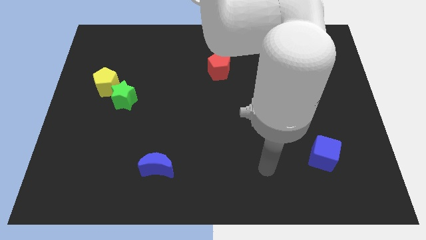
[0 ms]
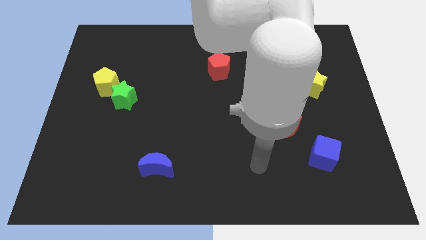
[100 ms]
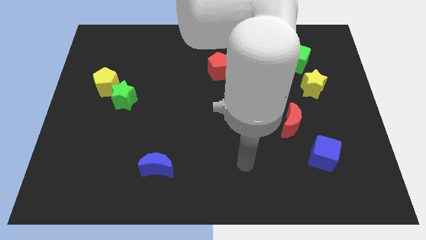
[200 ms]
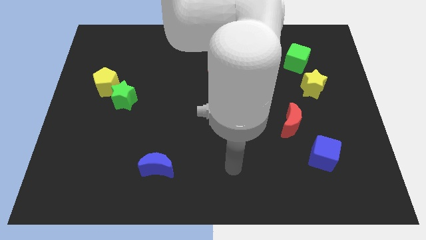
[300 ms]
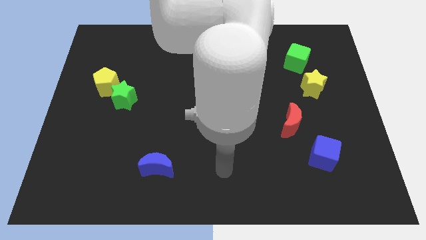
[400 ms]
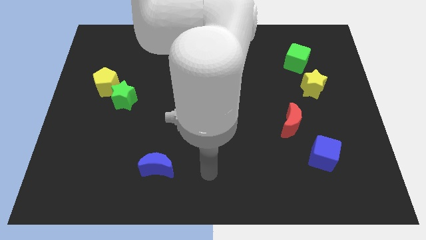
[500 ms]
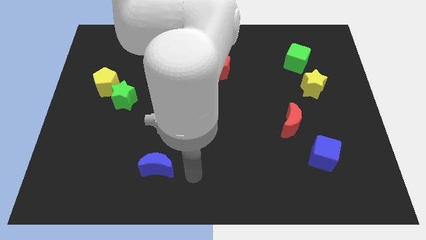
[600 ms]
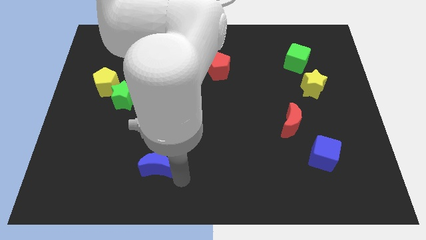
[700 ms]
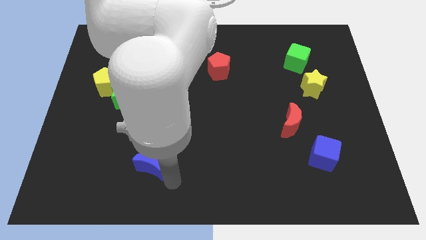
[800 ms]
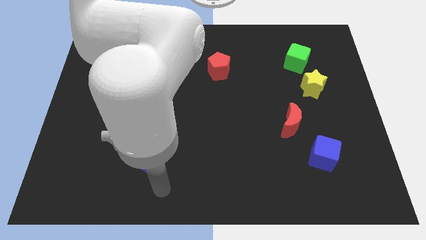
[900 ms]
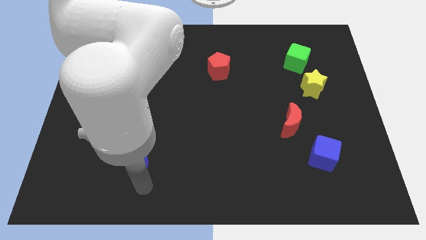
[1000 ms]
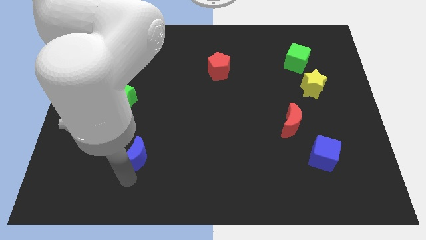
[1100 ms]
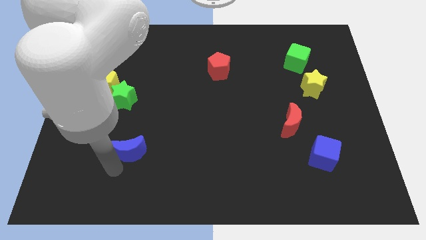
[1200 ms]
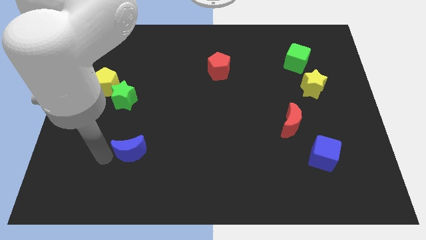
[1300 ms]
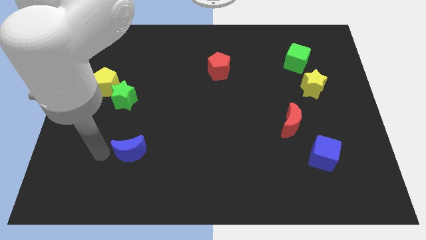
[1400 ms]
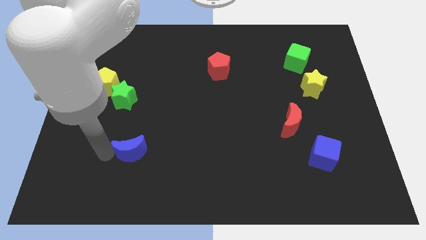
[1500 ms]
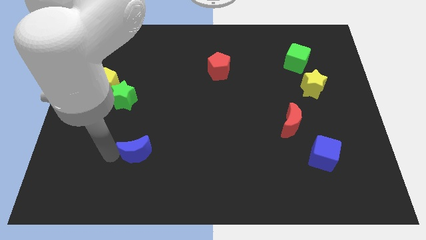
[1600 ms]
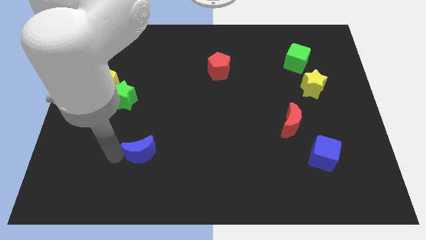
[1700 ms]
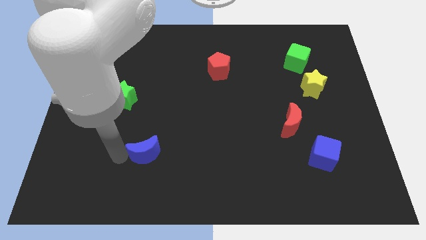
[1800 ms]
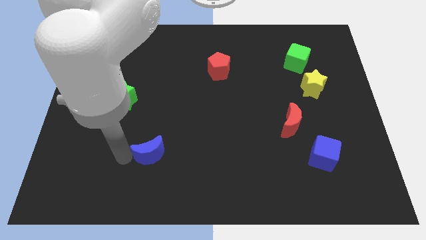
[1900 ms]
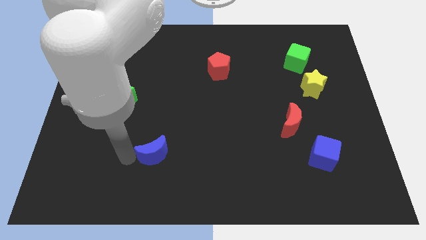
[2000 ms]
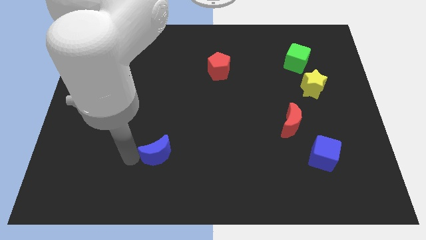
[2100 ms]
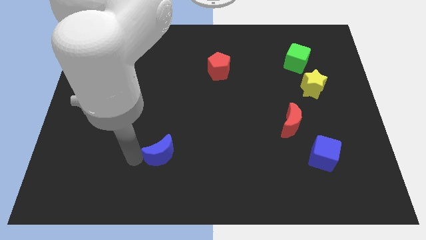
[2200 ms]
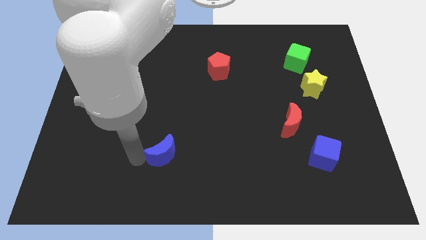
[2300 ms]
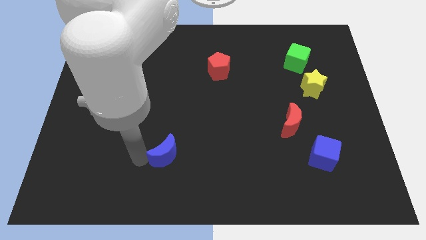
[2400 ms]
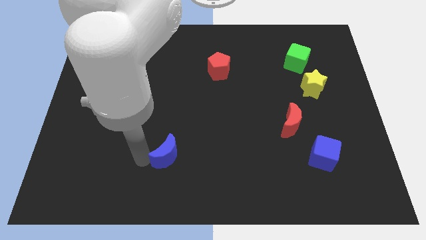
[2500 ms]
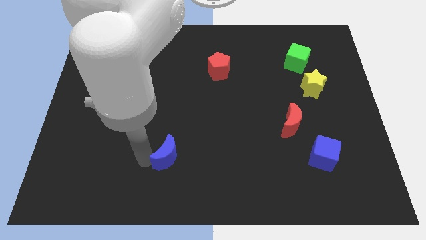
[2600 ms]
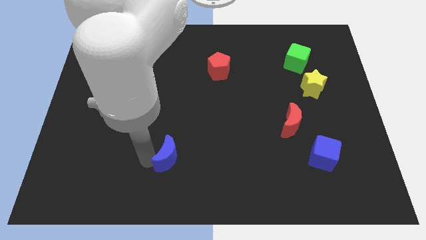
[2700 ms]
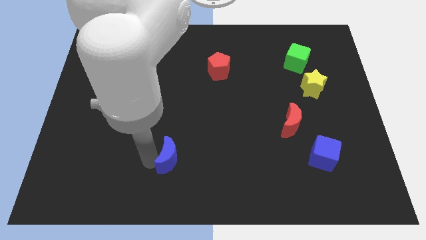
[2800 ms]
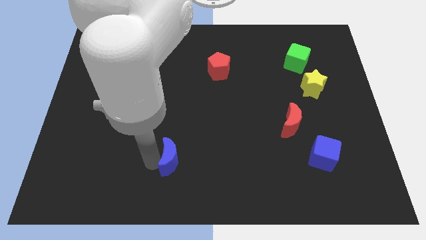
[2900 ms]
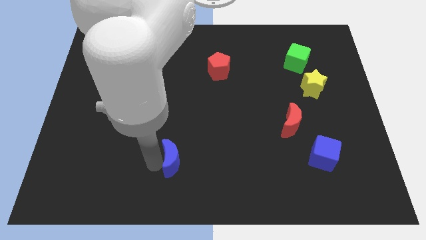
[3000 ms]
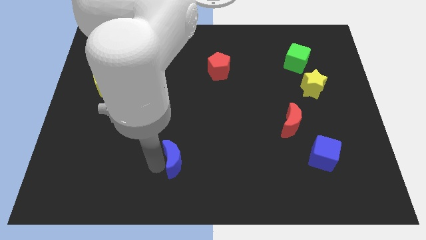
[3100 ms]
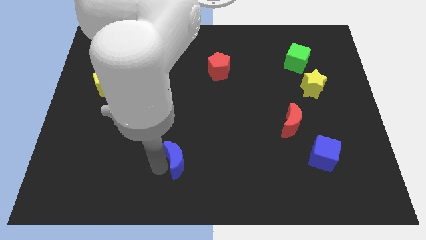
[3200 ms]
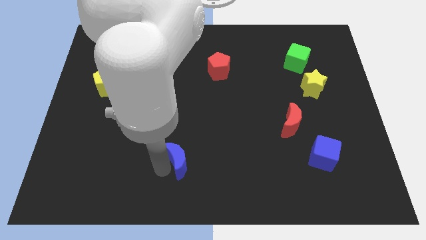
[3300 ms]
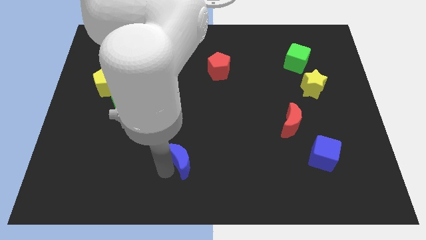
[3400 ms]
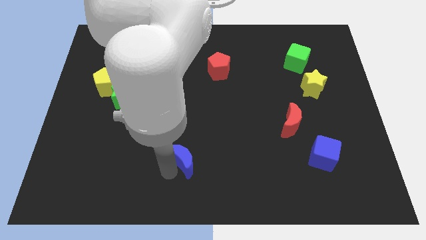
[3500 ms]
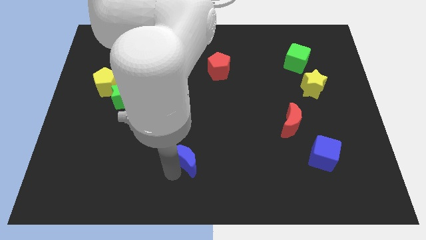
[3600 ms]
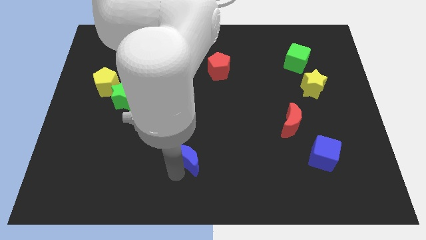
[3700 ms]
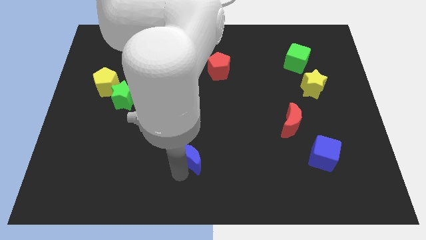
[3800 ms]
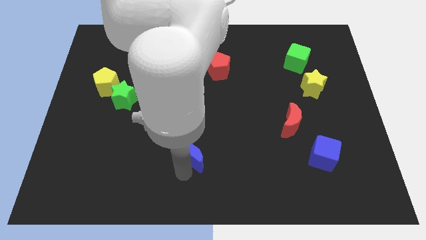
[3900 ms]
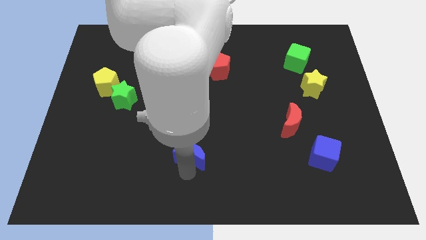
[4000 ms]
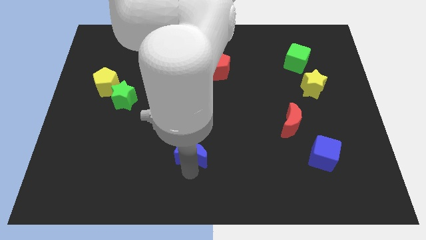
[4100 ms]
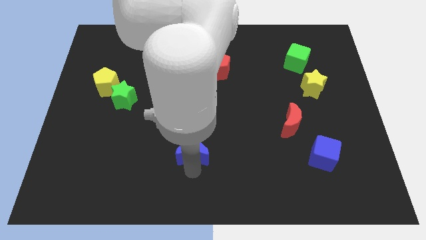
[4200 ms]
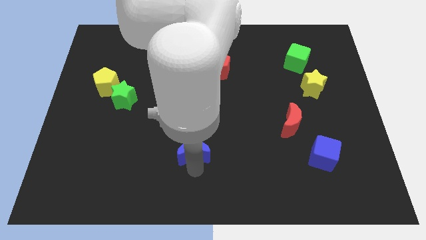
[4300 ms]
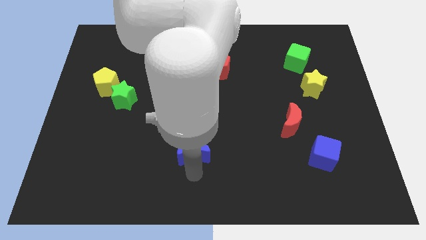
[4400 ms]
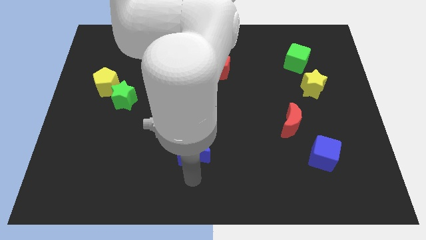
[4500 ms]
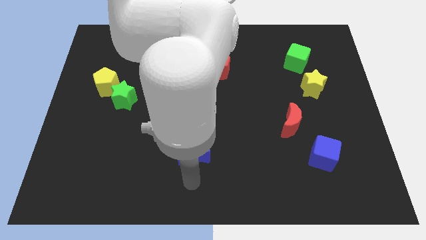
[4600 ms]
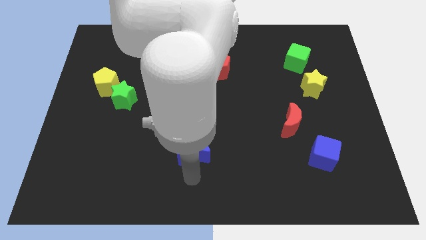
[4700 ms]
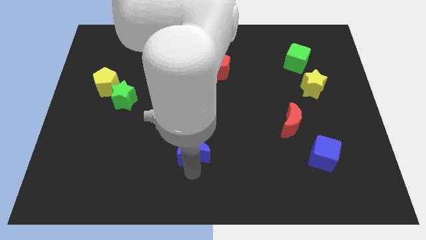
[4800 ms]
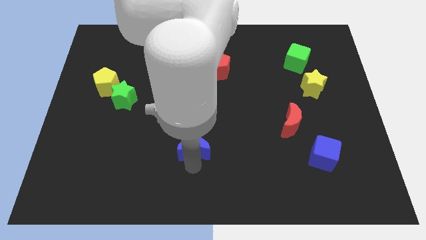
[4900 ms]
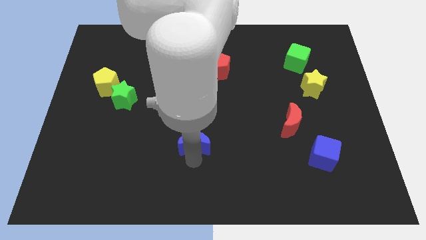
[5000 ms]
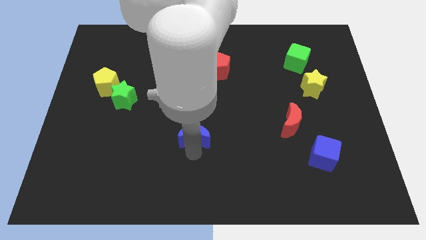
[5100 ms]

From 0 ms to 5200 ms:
slide the blue moon to the middle
